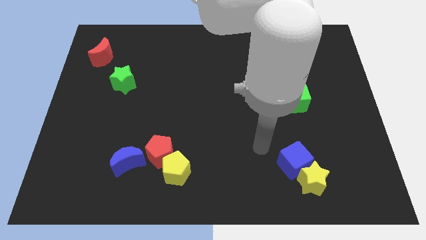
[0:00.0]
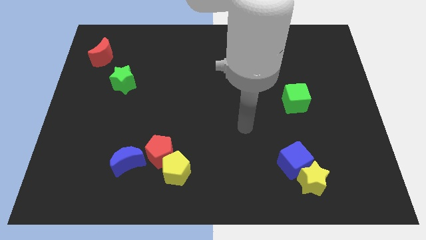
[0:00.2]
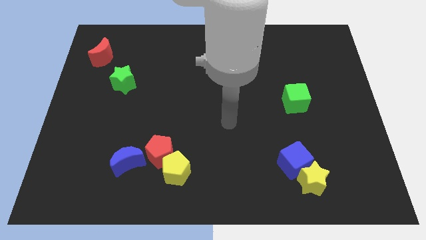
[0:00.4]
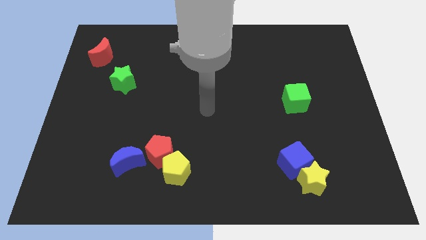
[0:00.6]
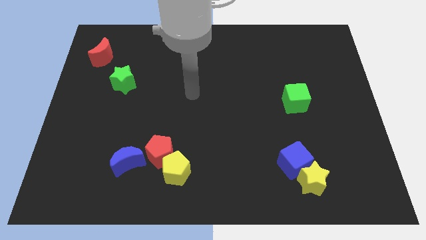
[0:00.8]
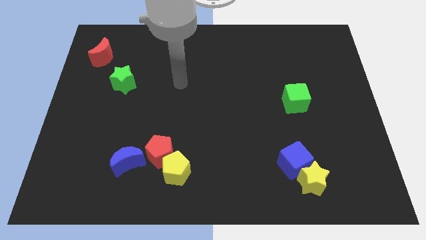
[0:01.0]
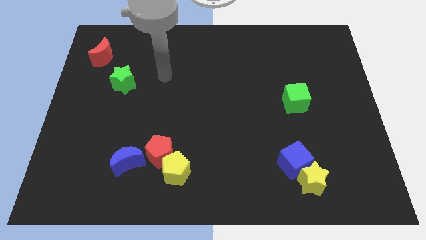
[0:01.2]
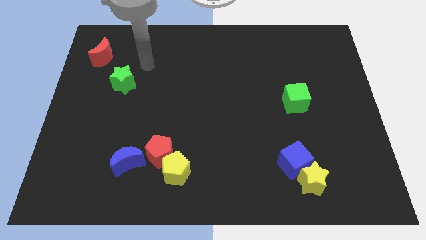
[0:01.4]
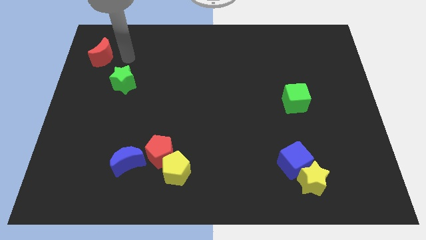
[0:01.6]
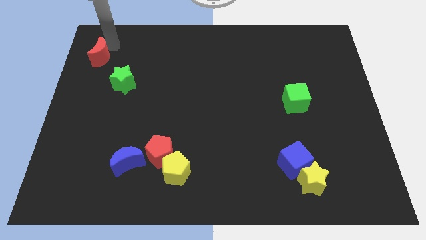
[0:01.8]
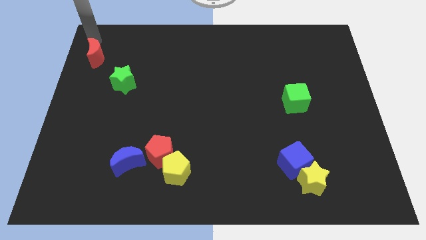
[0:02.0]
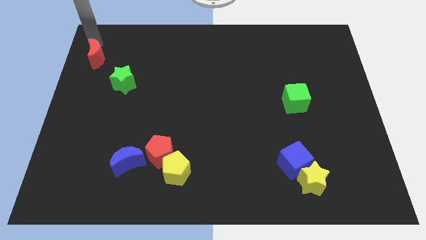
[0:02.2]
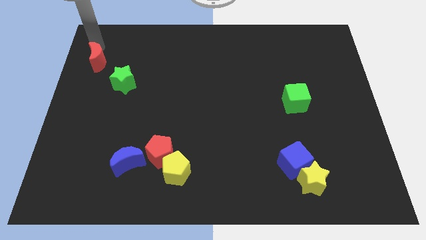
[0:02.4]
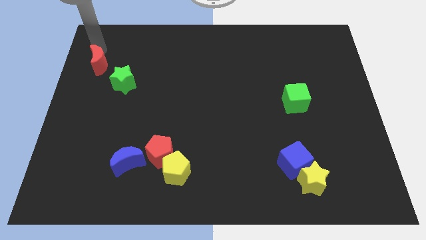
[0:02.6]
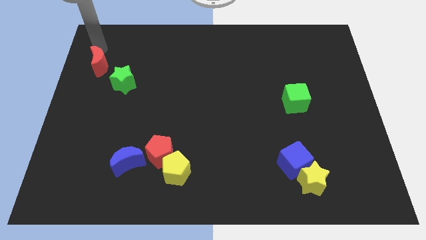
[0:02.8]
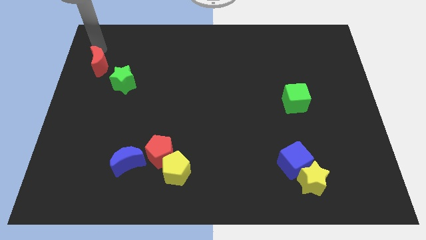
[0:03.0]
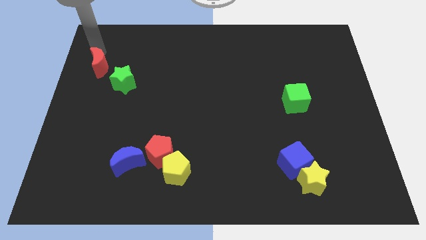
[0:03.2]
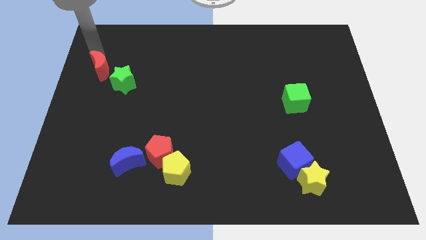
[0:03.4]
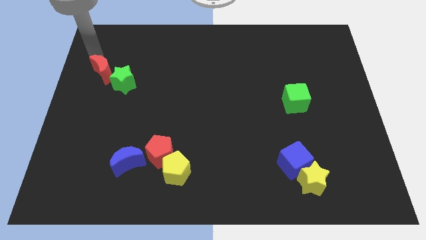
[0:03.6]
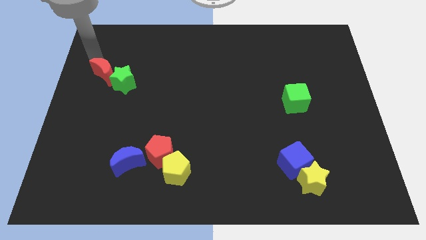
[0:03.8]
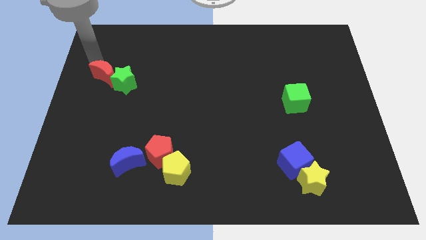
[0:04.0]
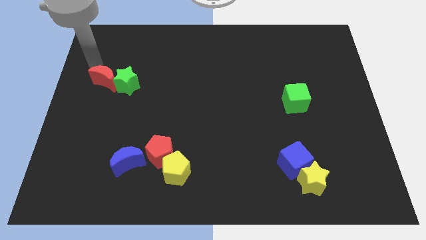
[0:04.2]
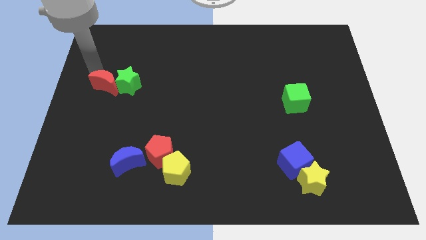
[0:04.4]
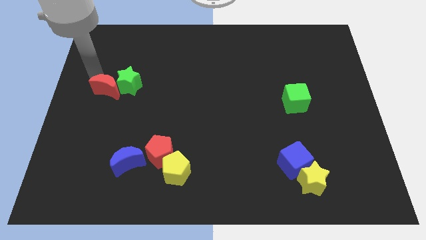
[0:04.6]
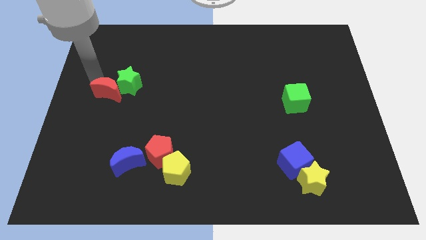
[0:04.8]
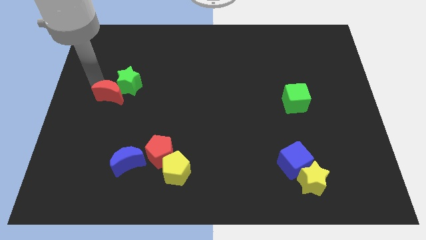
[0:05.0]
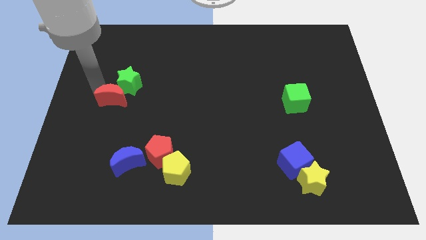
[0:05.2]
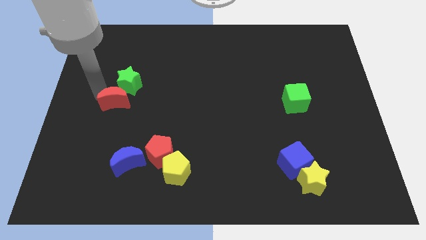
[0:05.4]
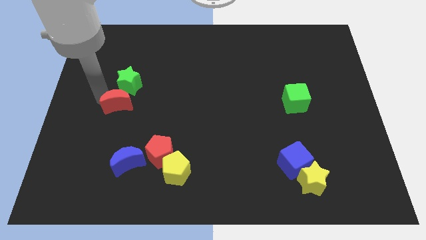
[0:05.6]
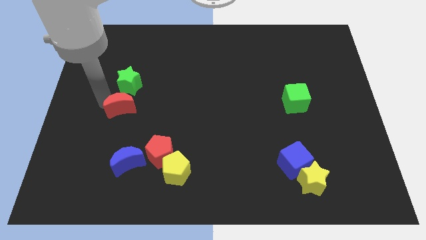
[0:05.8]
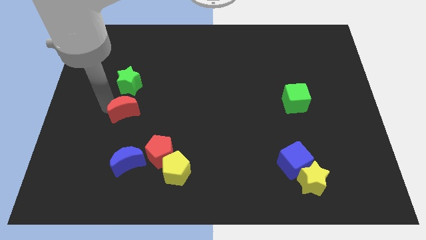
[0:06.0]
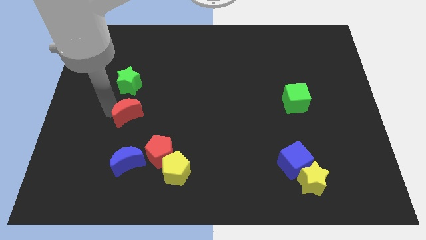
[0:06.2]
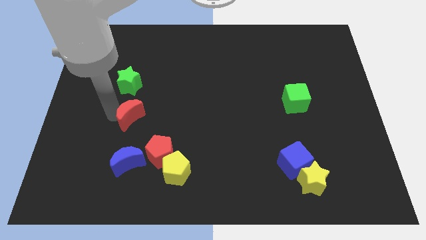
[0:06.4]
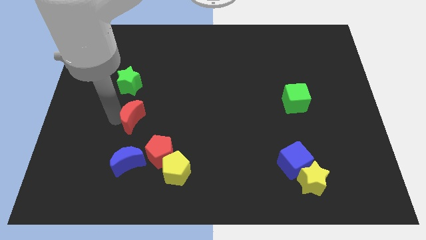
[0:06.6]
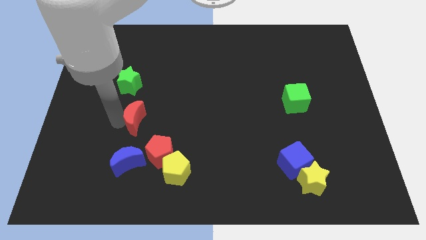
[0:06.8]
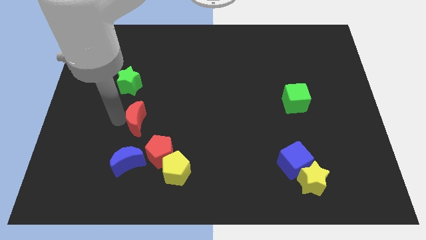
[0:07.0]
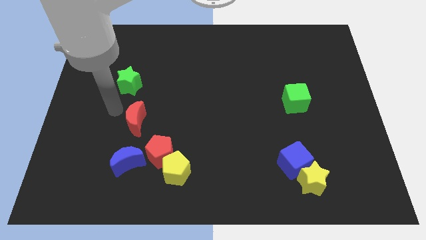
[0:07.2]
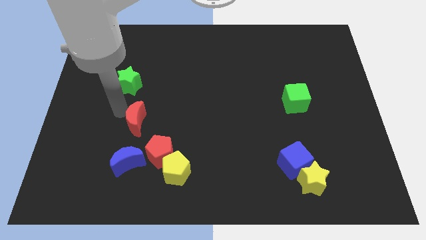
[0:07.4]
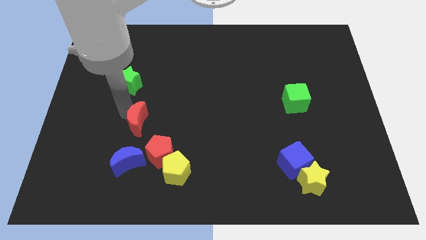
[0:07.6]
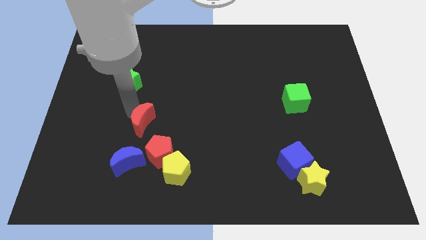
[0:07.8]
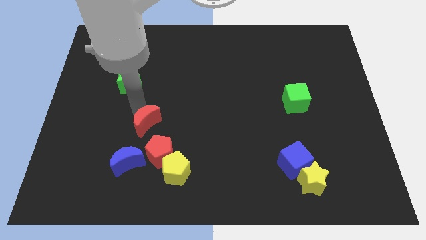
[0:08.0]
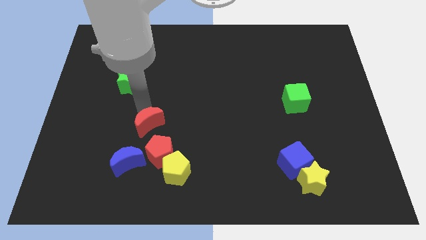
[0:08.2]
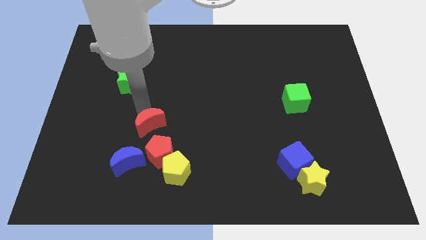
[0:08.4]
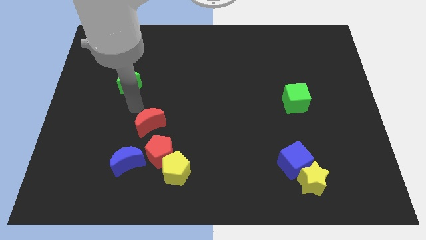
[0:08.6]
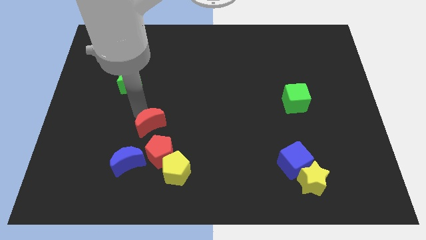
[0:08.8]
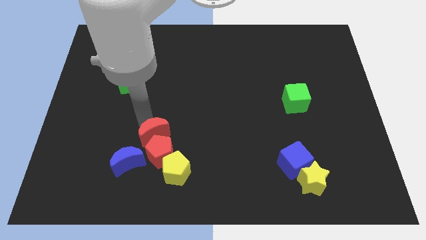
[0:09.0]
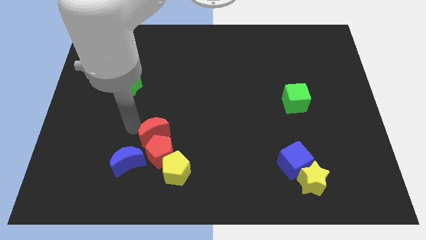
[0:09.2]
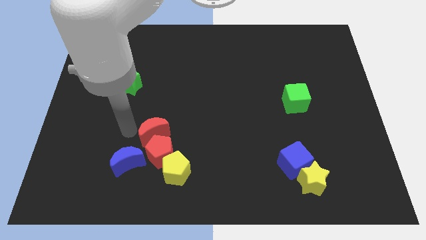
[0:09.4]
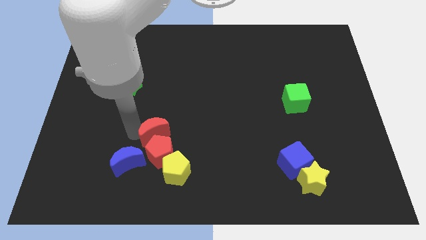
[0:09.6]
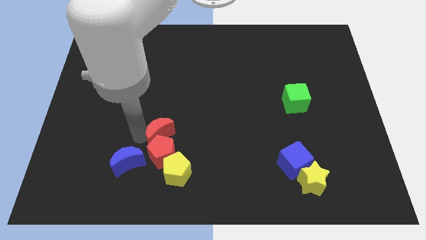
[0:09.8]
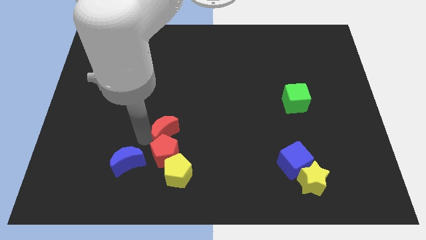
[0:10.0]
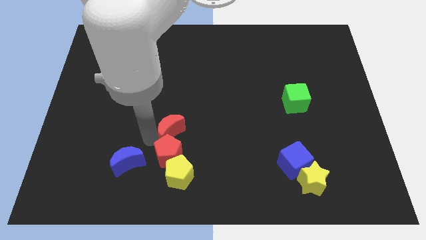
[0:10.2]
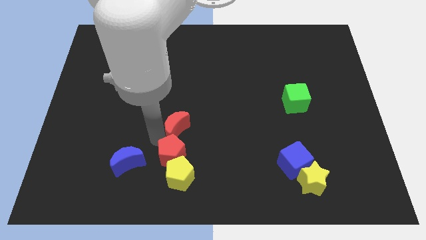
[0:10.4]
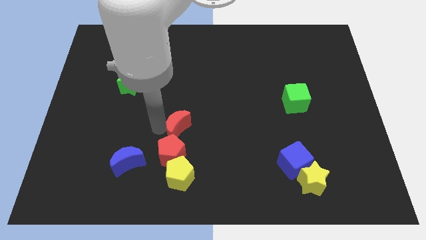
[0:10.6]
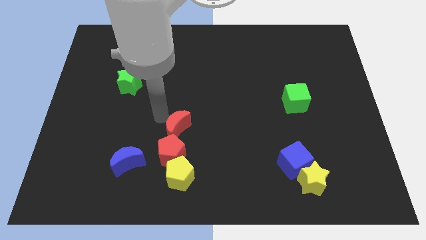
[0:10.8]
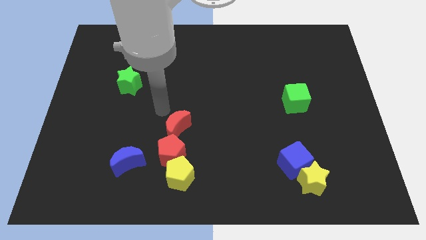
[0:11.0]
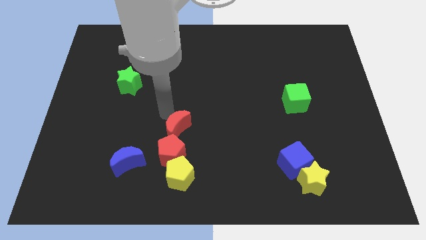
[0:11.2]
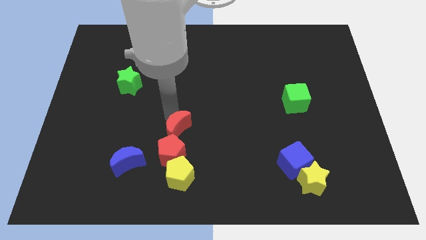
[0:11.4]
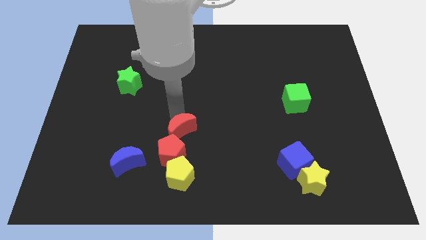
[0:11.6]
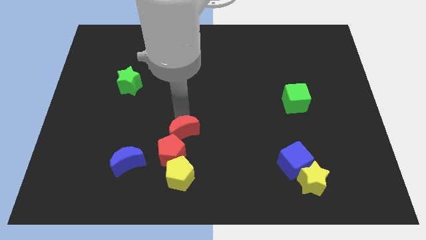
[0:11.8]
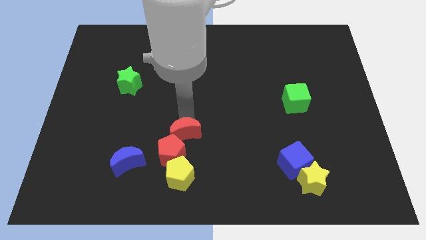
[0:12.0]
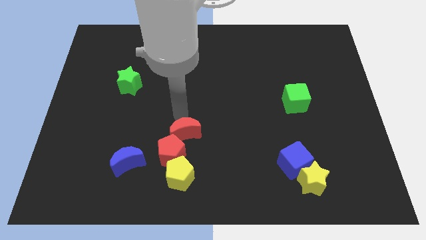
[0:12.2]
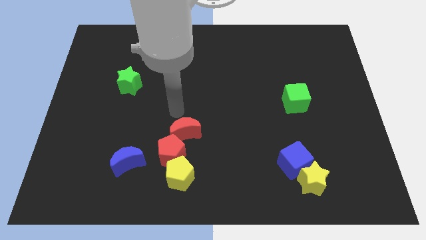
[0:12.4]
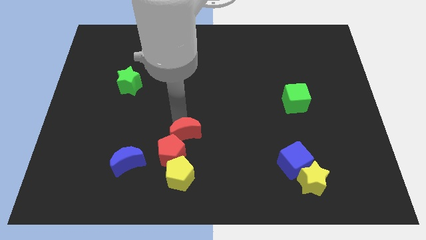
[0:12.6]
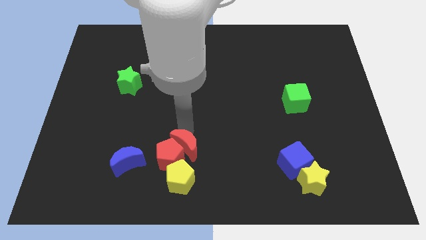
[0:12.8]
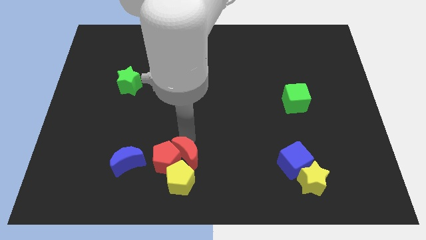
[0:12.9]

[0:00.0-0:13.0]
put the red moon towards the yellow pentagon

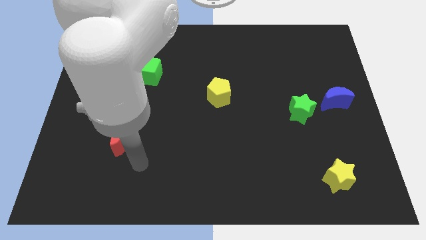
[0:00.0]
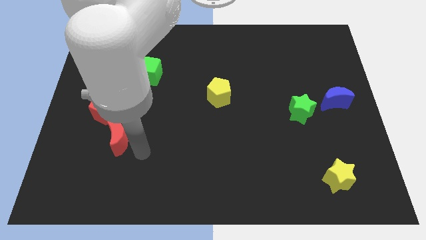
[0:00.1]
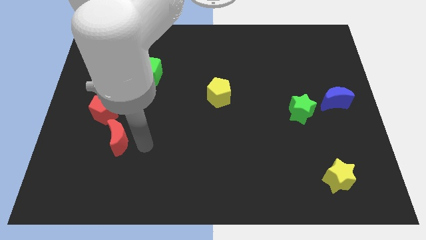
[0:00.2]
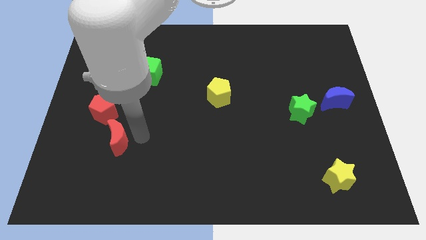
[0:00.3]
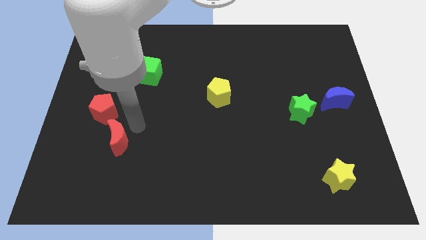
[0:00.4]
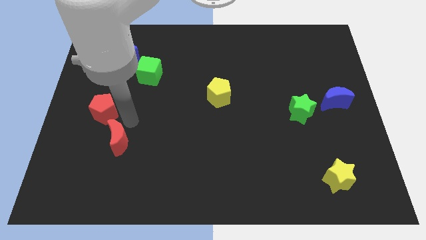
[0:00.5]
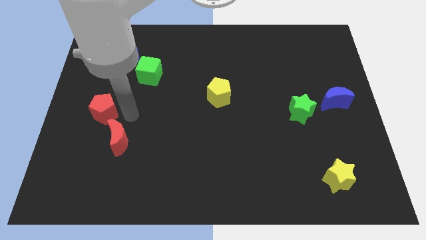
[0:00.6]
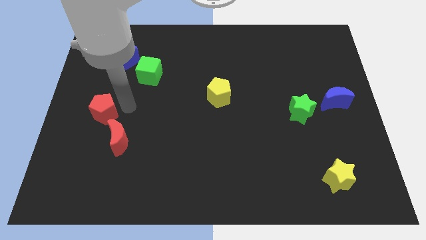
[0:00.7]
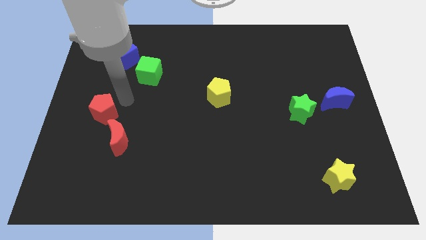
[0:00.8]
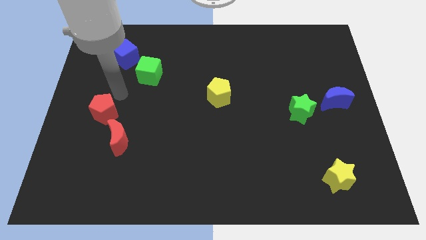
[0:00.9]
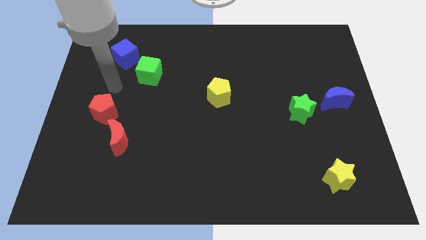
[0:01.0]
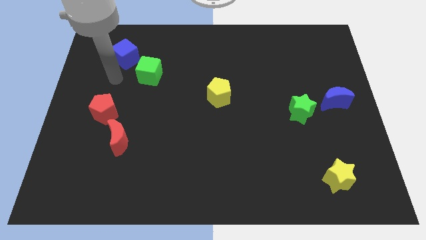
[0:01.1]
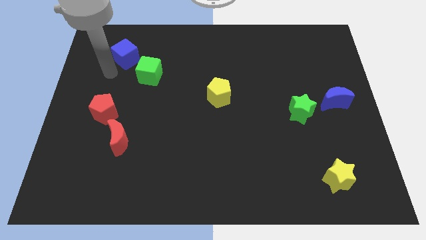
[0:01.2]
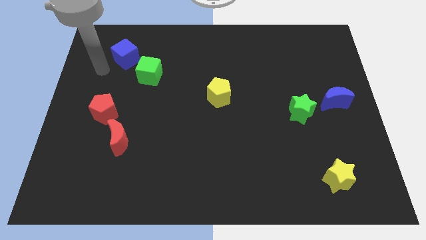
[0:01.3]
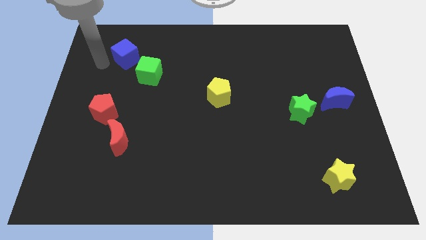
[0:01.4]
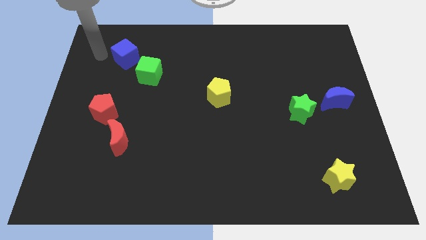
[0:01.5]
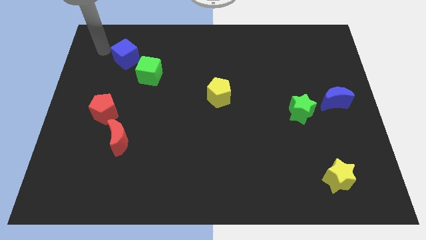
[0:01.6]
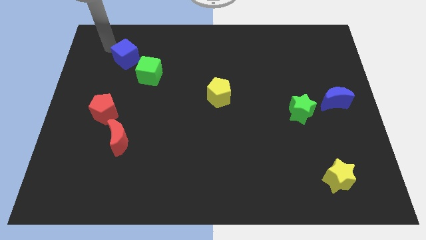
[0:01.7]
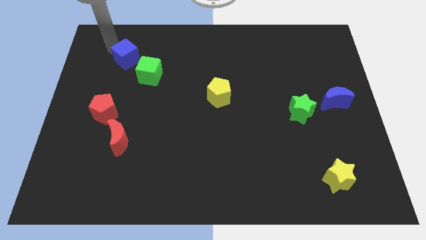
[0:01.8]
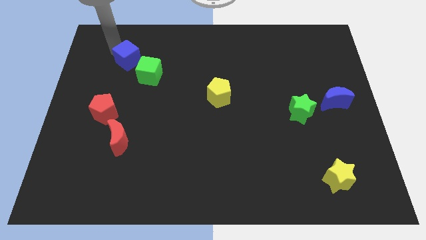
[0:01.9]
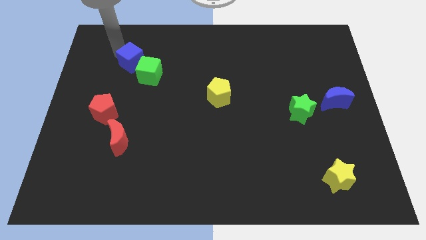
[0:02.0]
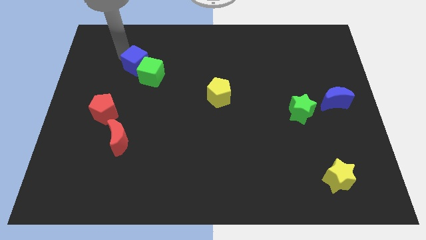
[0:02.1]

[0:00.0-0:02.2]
move the blue cube to the green cube
